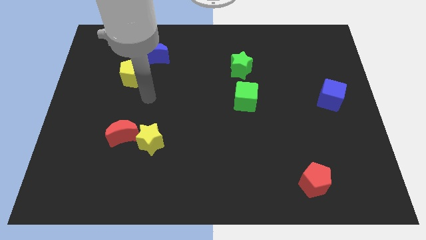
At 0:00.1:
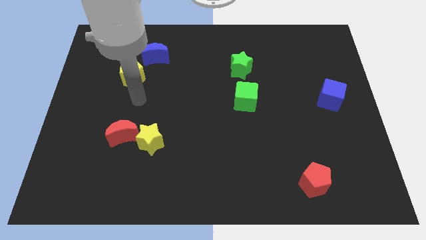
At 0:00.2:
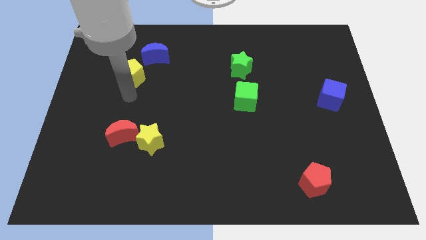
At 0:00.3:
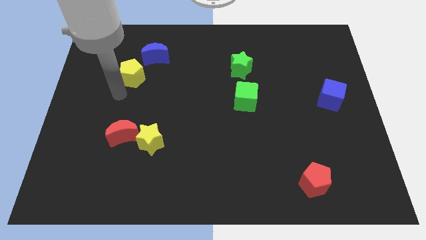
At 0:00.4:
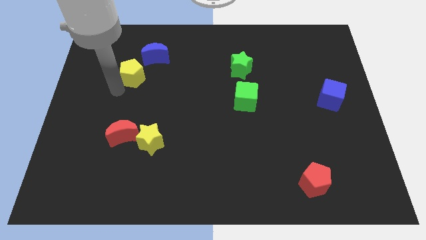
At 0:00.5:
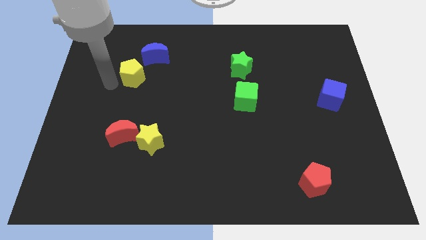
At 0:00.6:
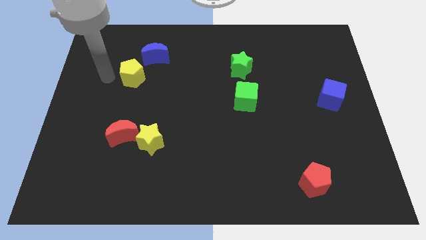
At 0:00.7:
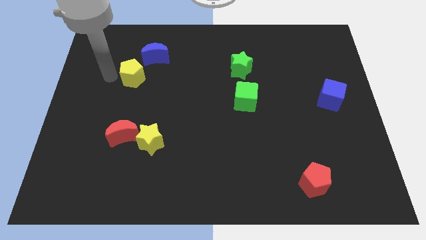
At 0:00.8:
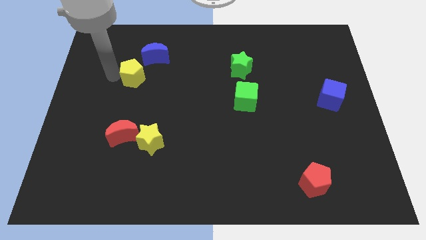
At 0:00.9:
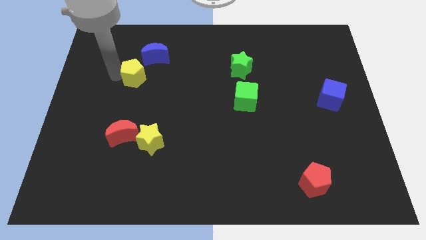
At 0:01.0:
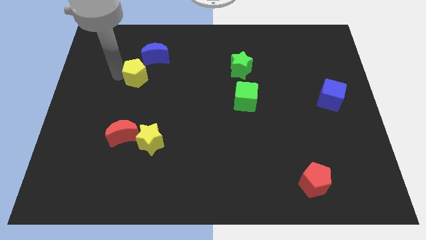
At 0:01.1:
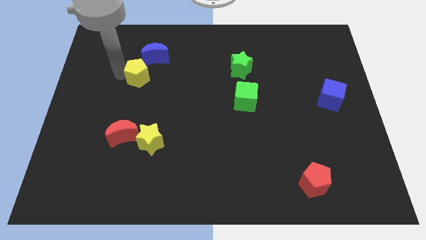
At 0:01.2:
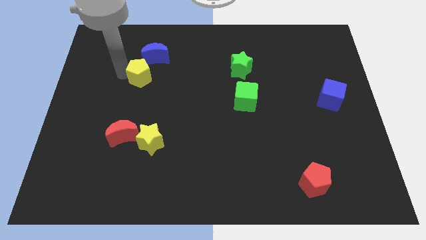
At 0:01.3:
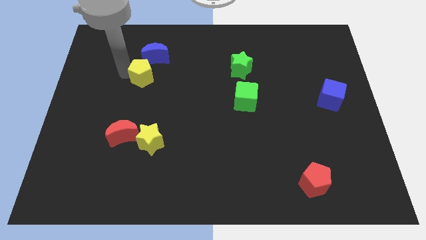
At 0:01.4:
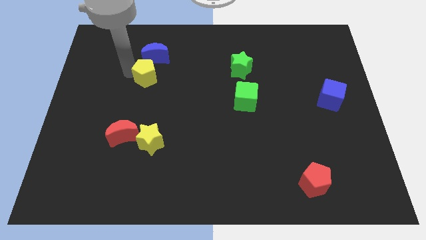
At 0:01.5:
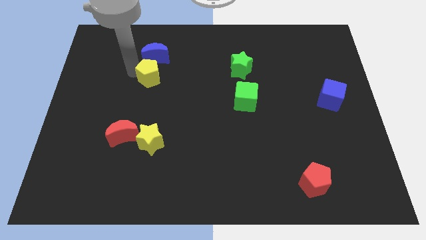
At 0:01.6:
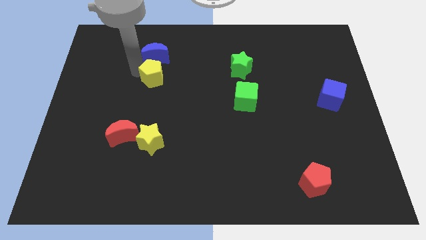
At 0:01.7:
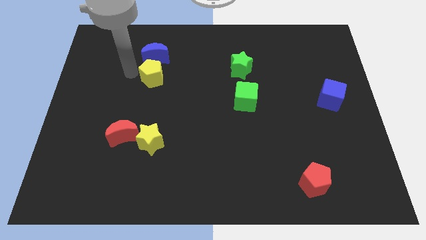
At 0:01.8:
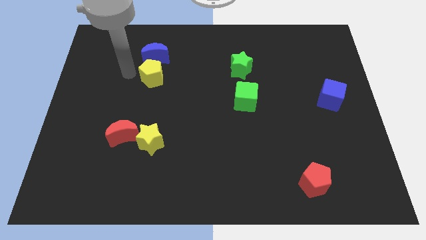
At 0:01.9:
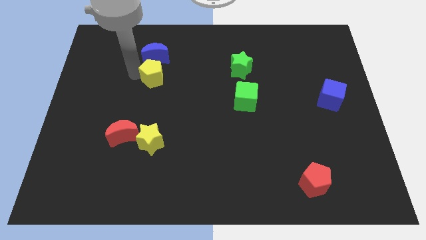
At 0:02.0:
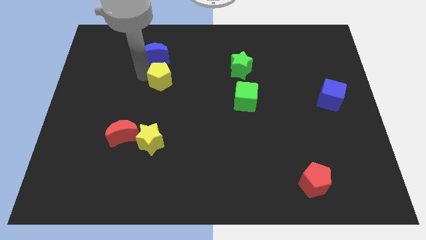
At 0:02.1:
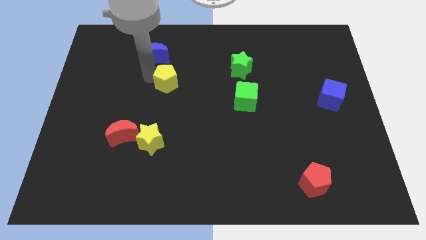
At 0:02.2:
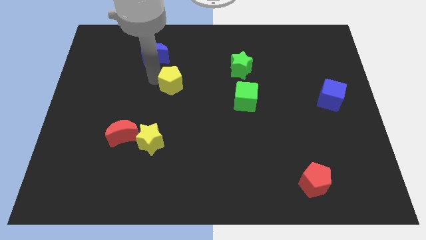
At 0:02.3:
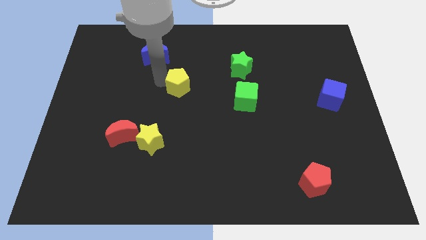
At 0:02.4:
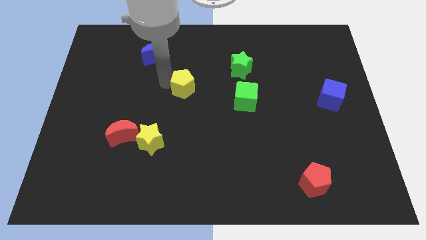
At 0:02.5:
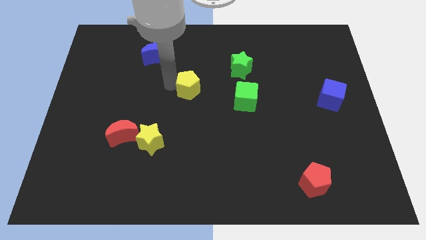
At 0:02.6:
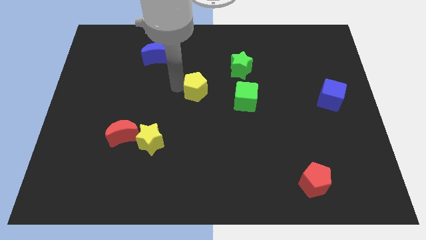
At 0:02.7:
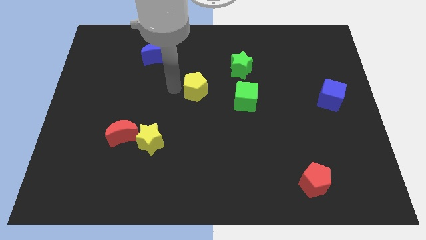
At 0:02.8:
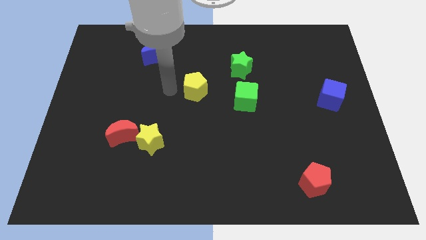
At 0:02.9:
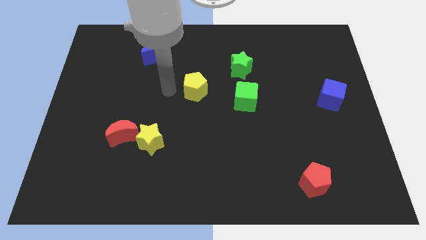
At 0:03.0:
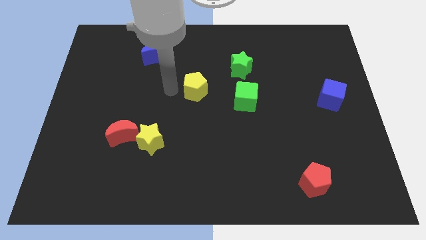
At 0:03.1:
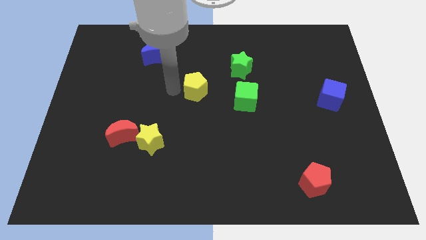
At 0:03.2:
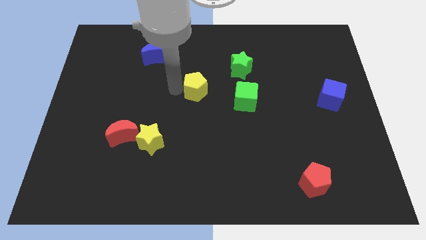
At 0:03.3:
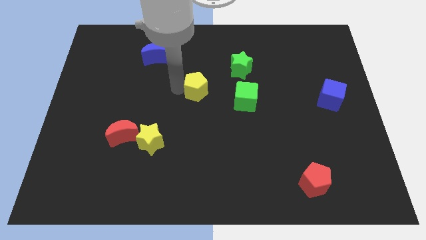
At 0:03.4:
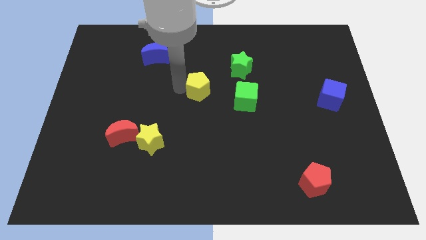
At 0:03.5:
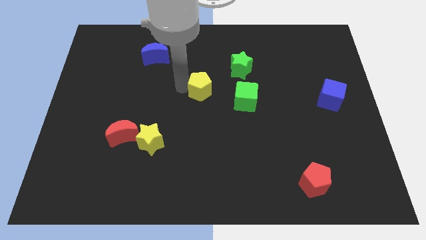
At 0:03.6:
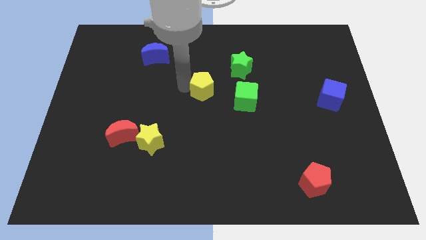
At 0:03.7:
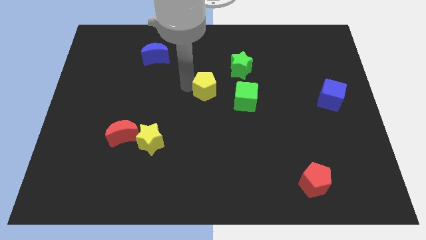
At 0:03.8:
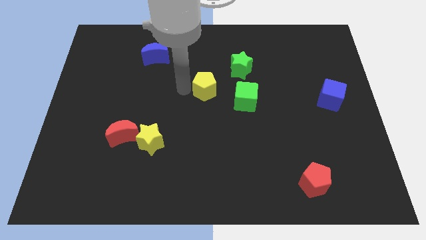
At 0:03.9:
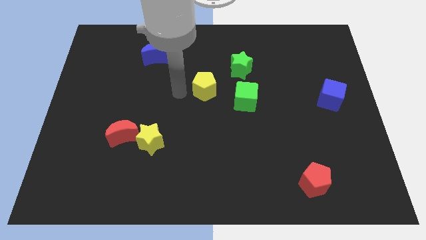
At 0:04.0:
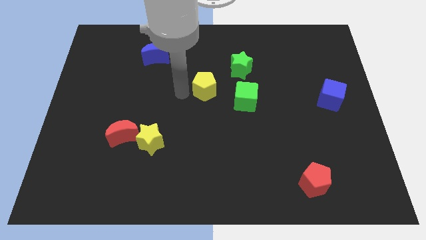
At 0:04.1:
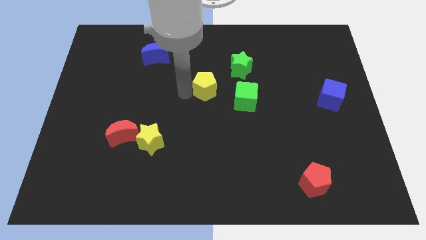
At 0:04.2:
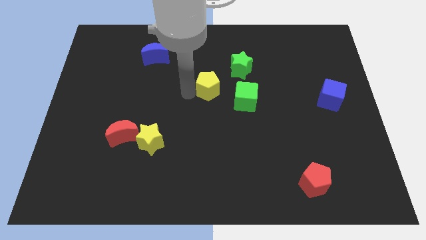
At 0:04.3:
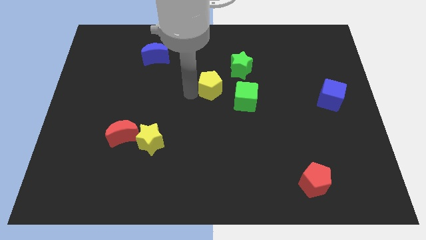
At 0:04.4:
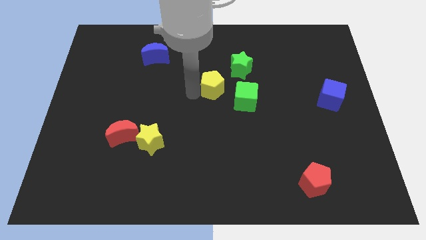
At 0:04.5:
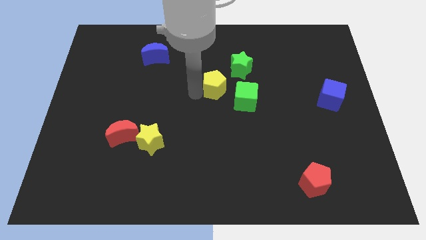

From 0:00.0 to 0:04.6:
push the yellow pentagon to the right

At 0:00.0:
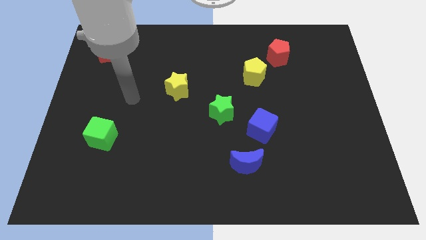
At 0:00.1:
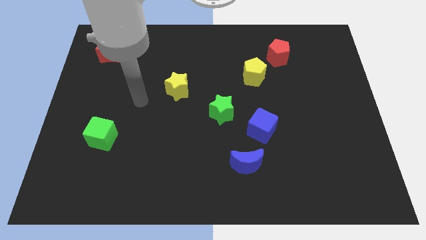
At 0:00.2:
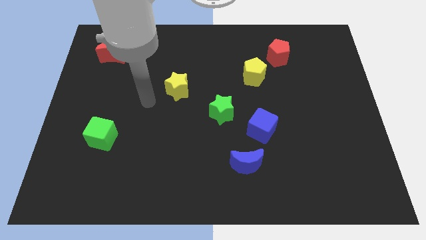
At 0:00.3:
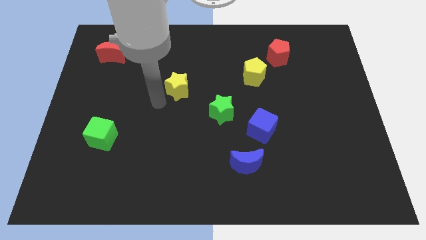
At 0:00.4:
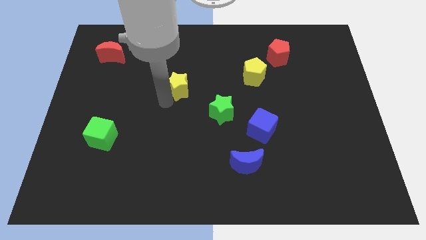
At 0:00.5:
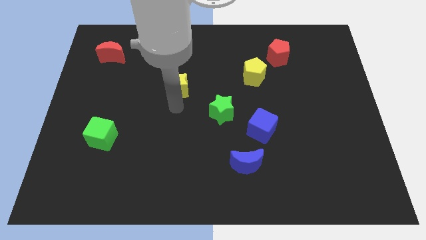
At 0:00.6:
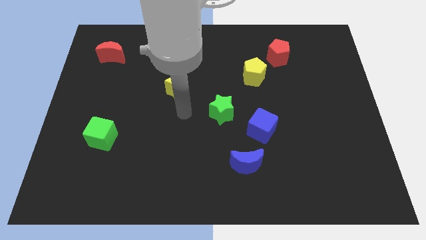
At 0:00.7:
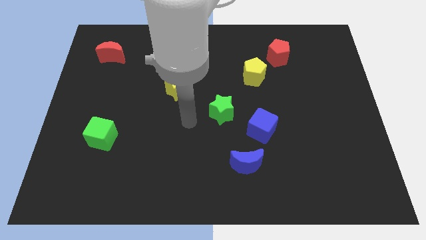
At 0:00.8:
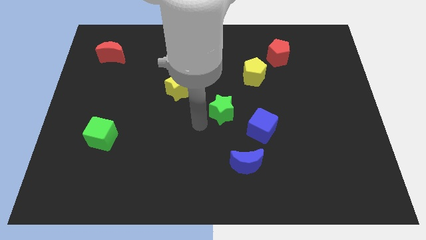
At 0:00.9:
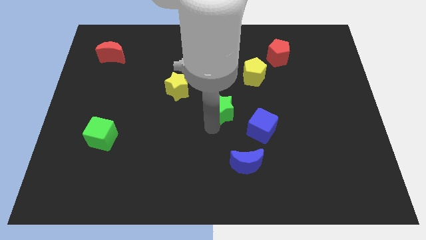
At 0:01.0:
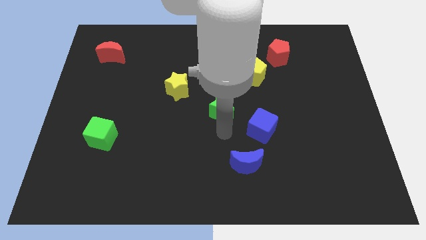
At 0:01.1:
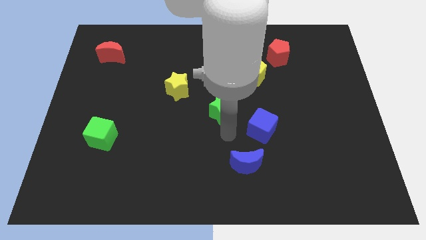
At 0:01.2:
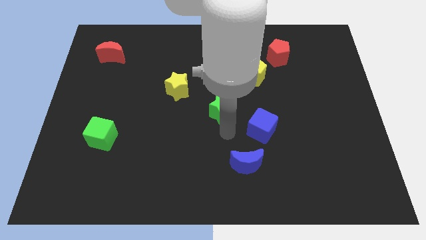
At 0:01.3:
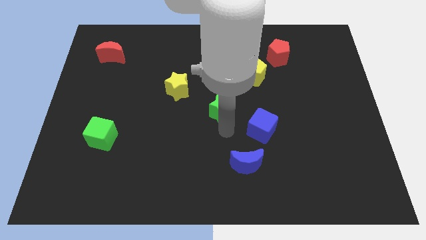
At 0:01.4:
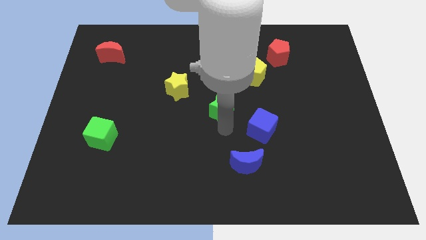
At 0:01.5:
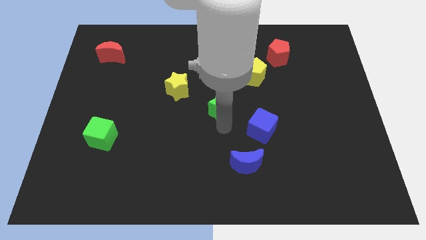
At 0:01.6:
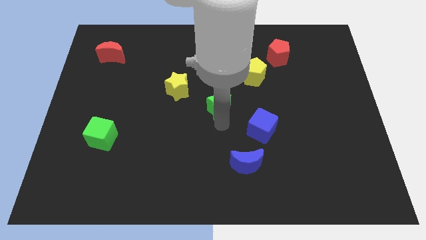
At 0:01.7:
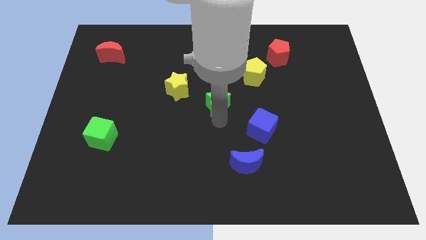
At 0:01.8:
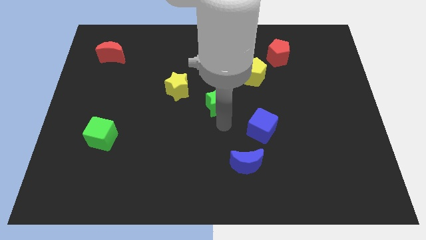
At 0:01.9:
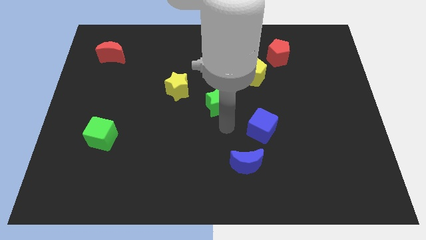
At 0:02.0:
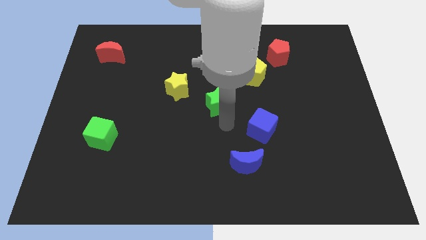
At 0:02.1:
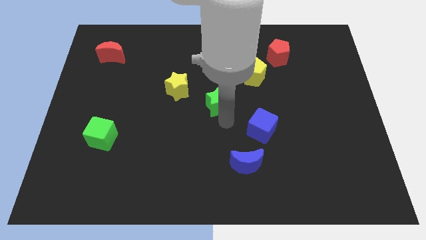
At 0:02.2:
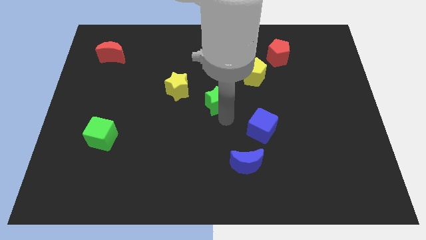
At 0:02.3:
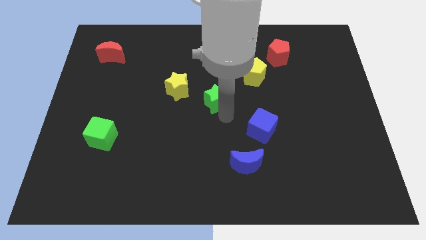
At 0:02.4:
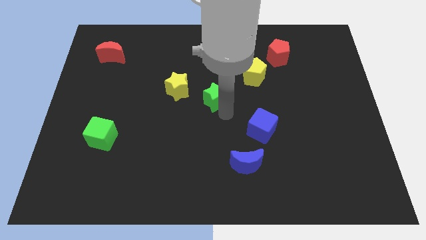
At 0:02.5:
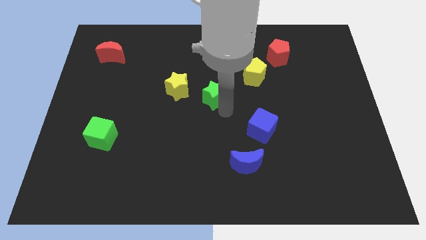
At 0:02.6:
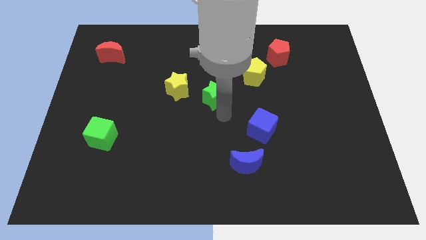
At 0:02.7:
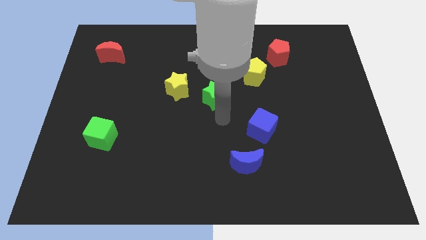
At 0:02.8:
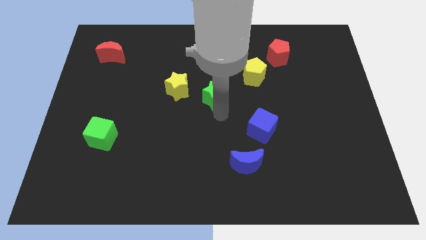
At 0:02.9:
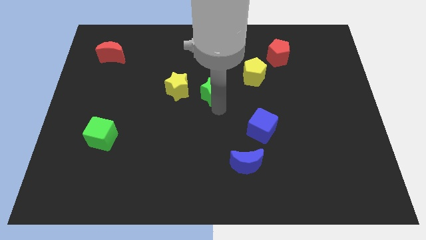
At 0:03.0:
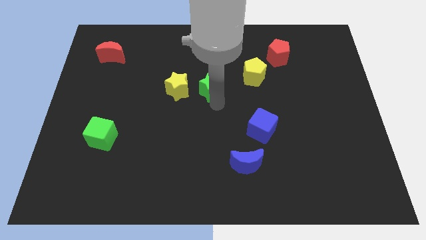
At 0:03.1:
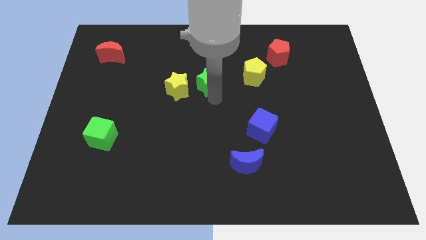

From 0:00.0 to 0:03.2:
slightly slide the green star diagonally upwards and to the left
